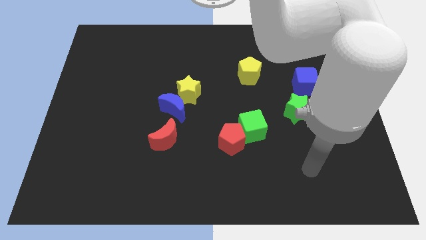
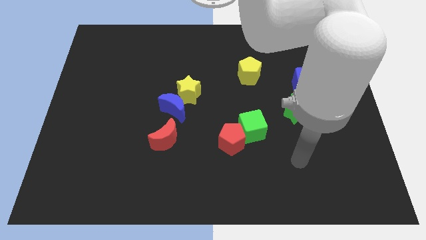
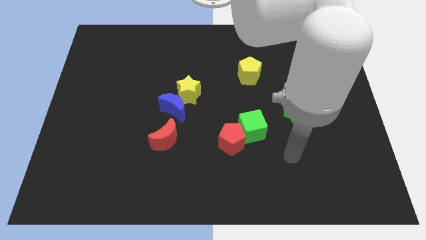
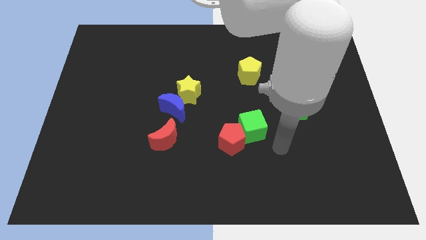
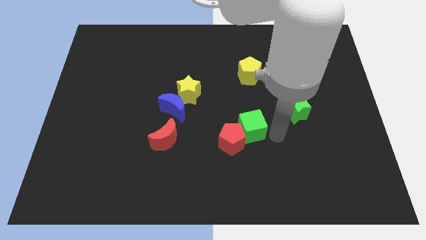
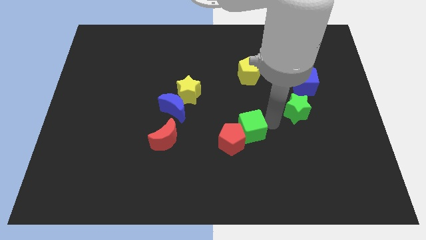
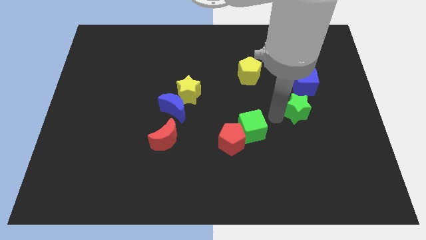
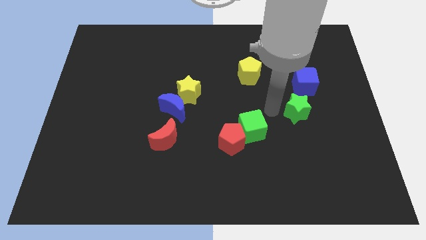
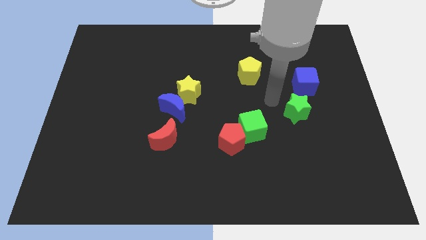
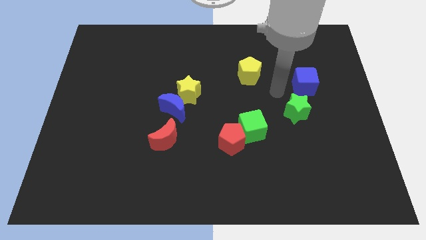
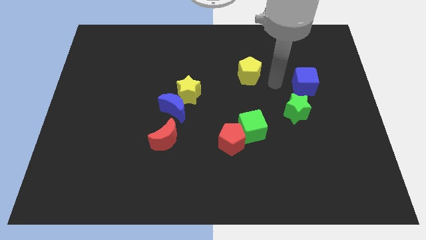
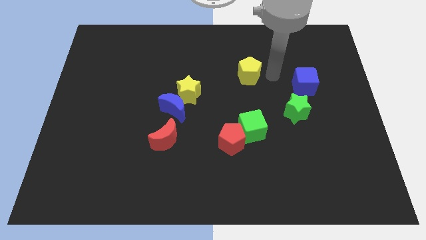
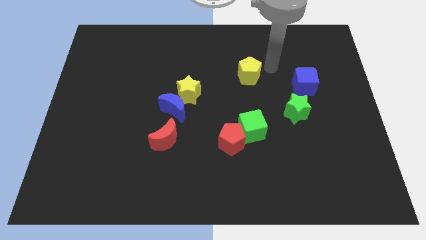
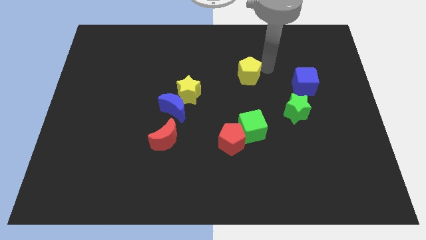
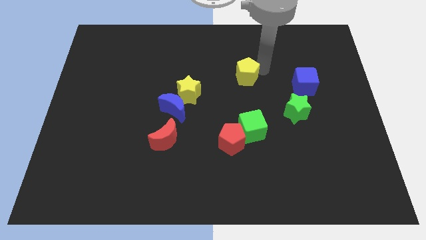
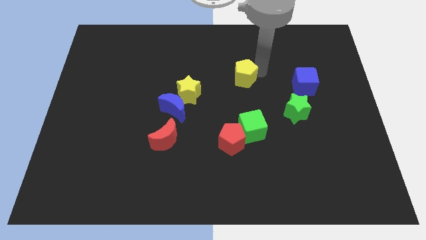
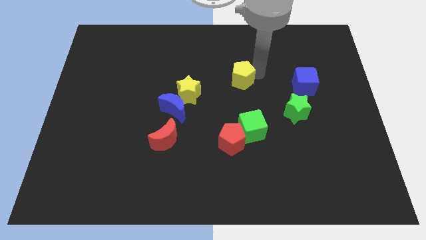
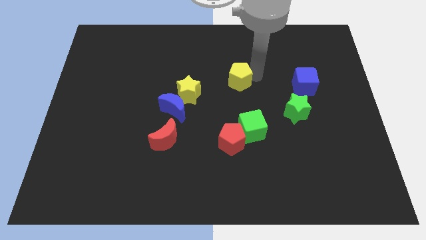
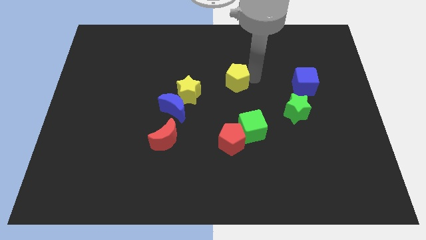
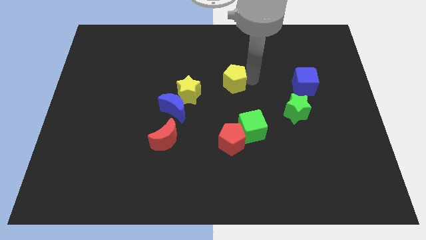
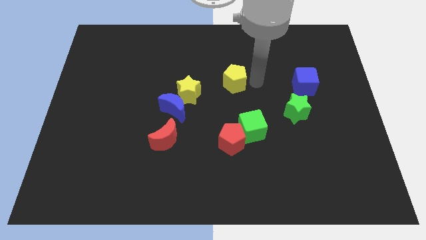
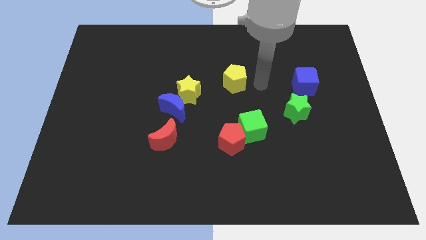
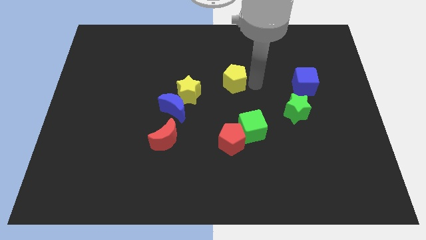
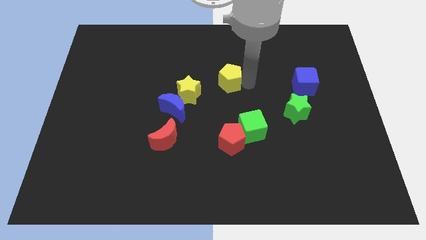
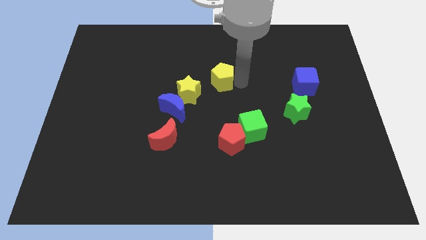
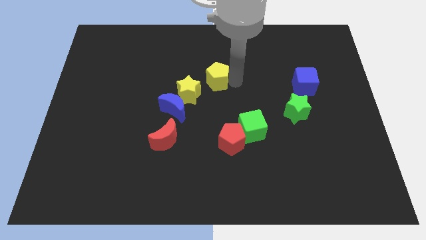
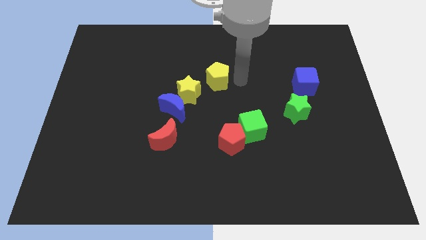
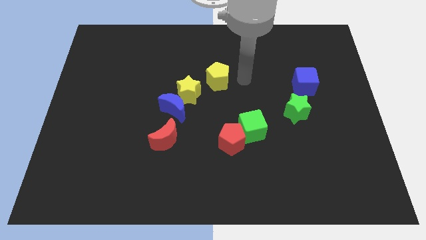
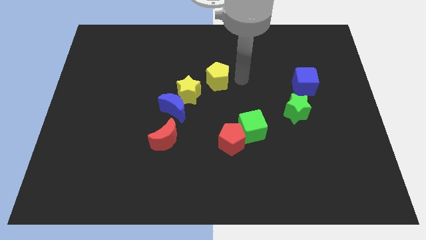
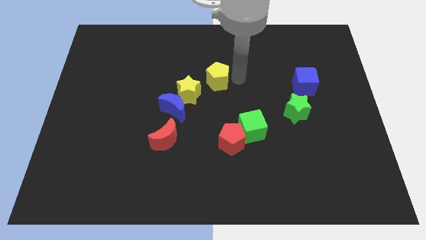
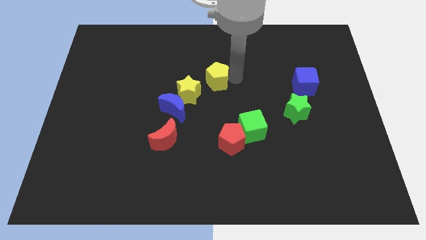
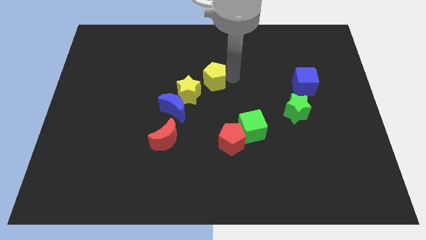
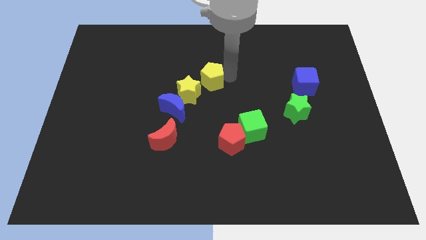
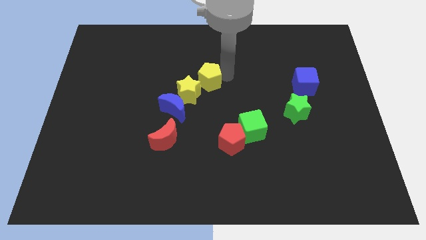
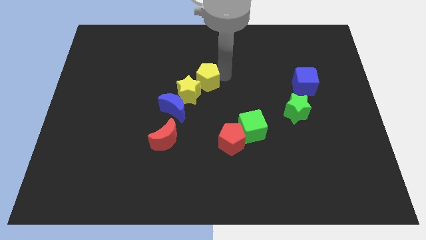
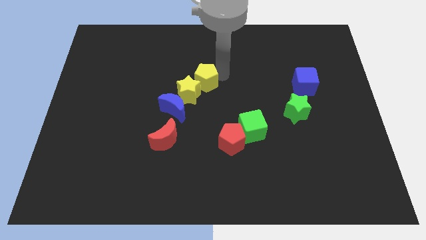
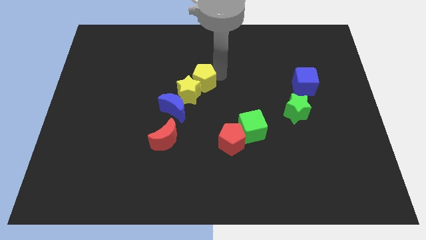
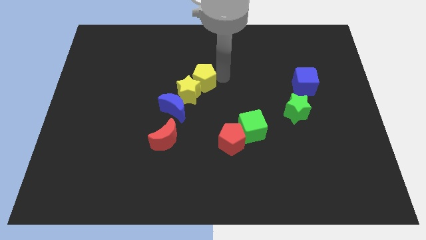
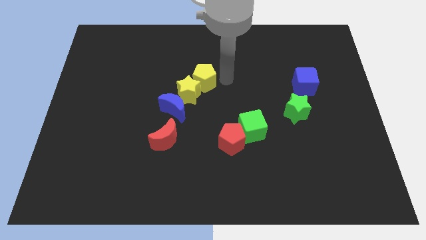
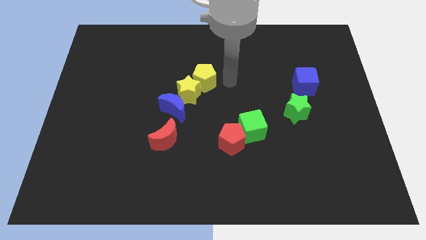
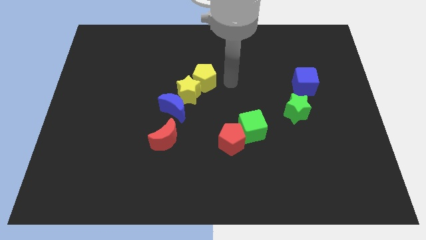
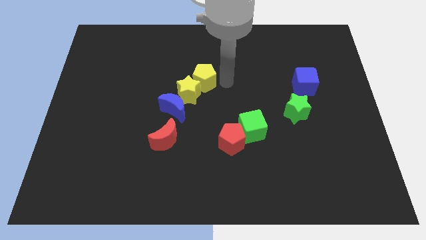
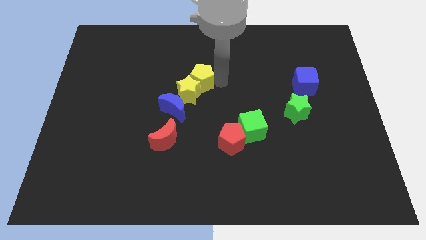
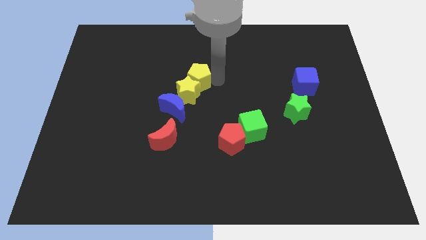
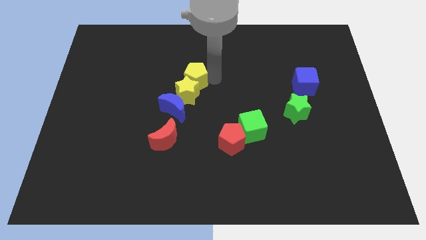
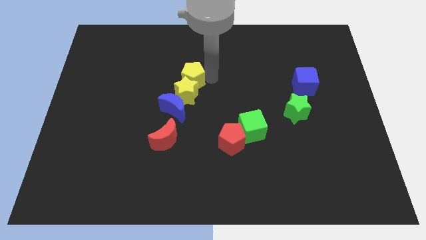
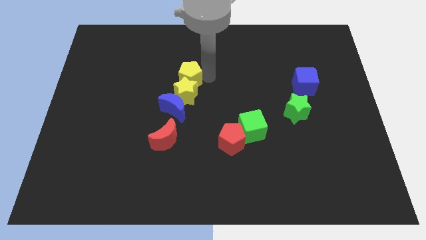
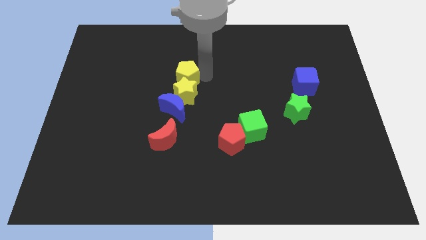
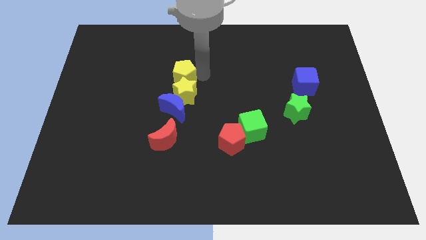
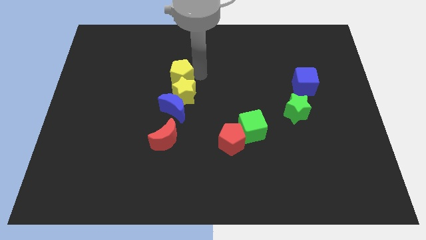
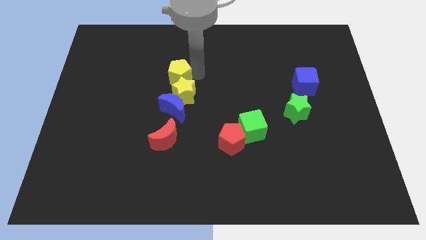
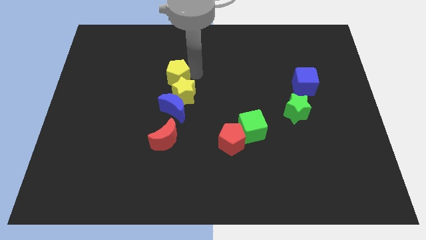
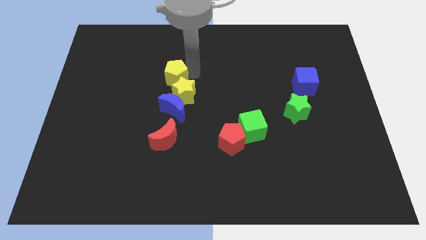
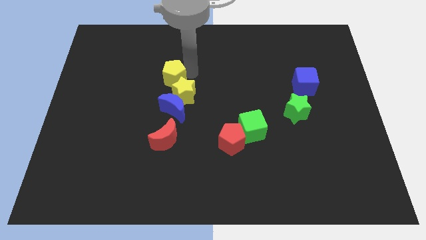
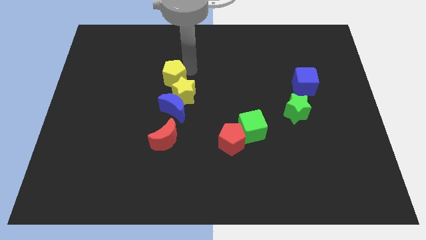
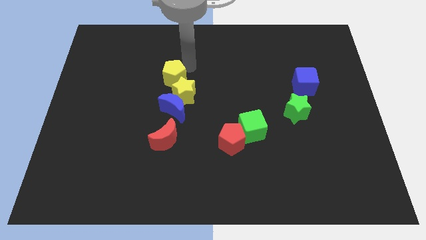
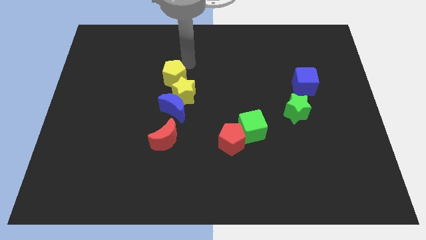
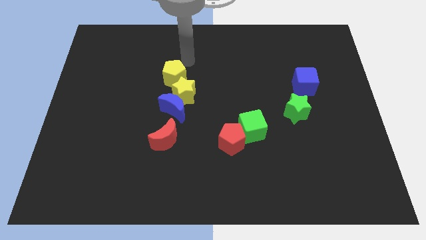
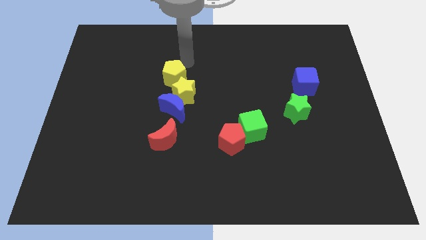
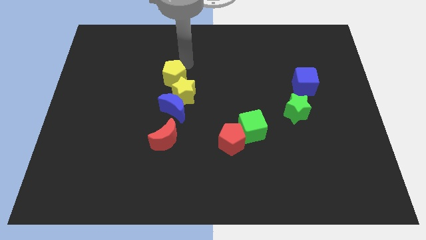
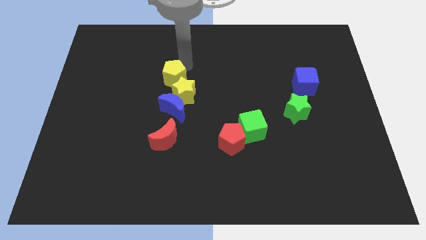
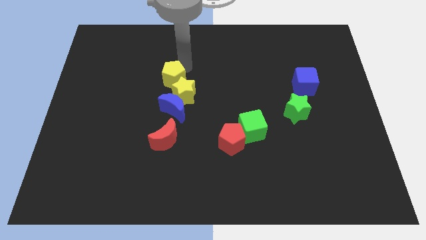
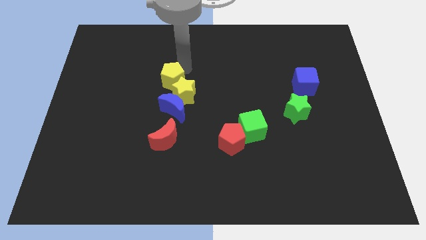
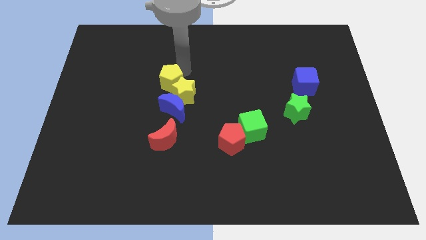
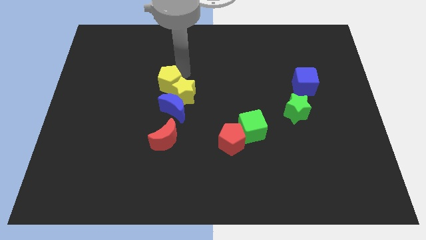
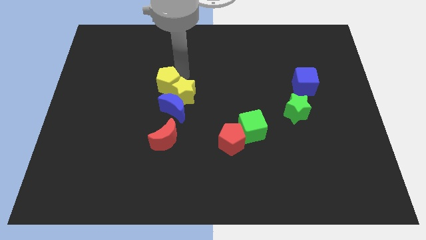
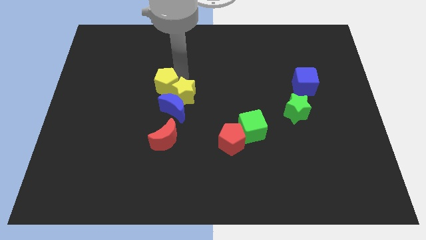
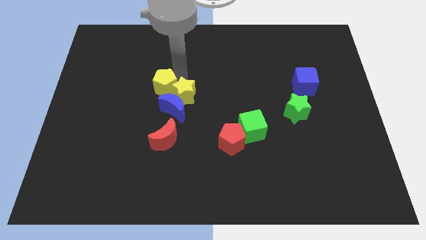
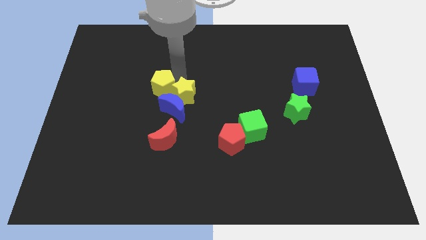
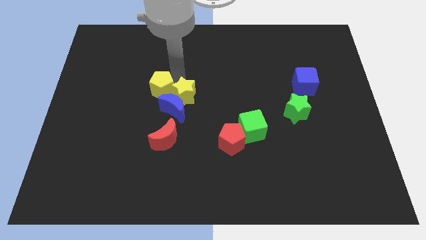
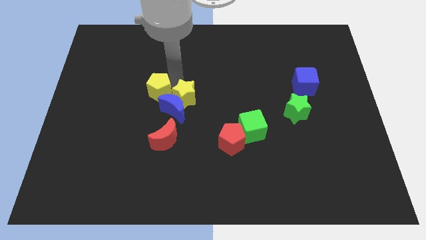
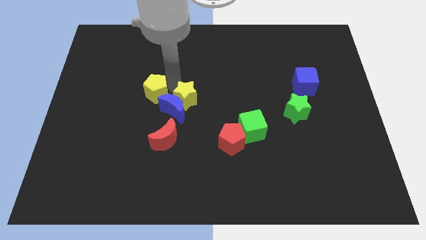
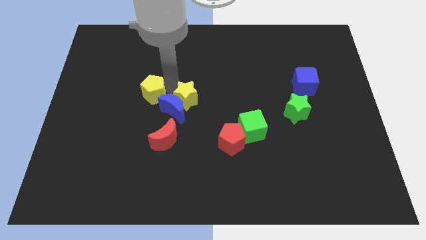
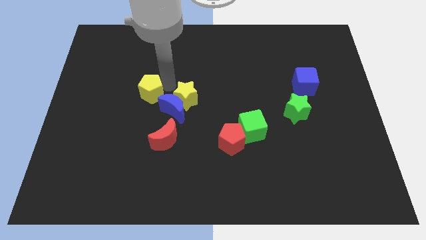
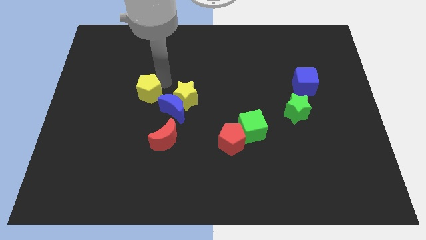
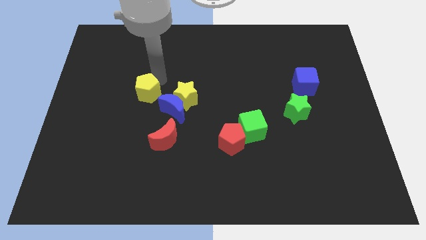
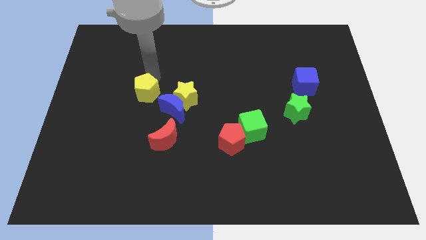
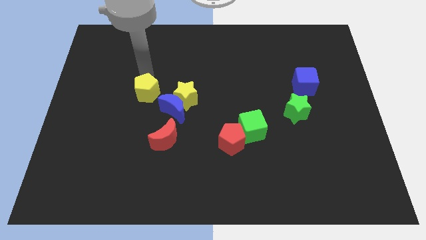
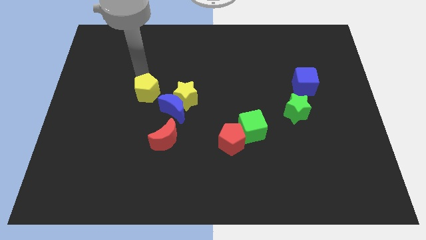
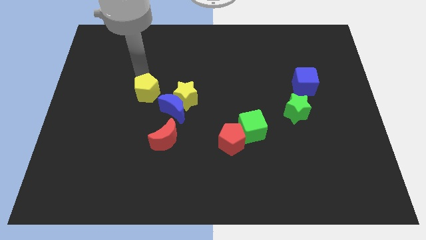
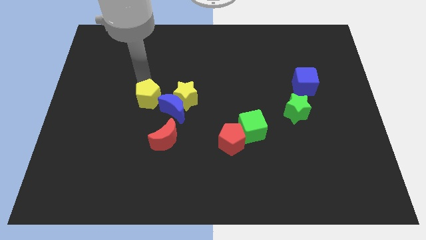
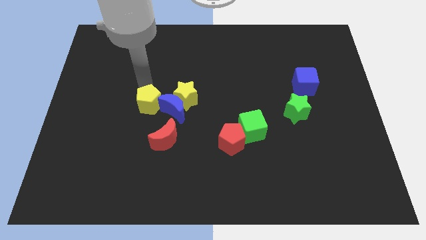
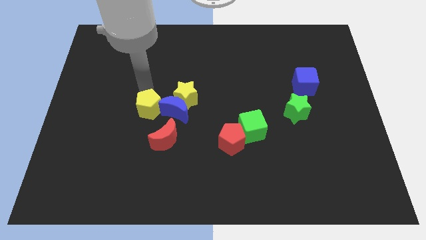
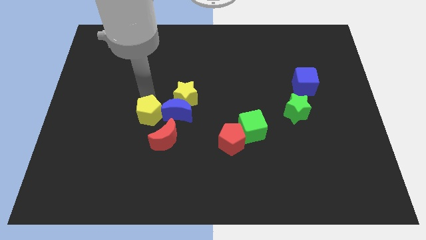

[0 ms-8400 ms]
slide the yellow pentagon to the bottom left of the blue moon
